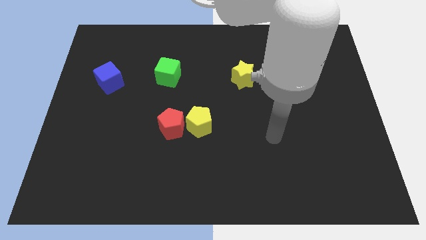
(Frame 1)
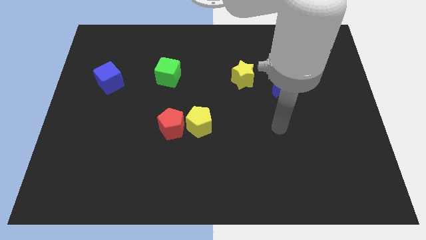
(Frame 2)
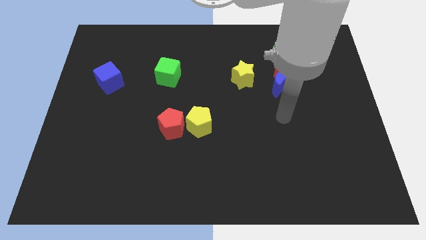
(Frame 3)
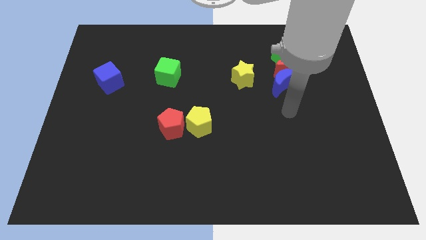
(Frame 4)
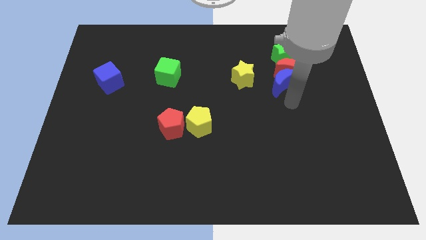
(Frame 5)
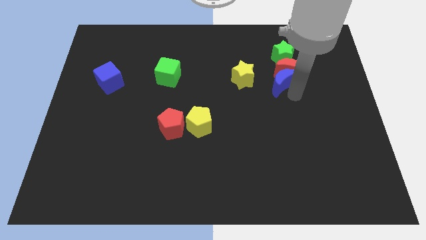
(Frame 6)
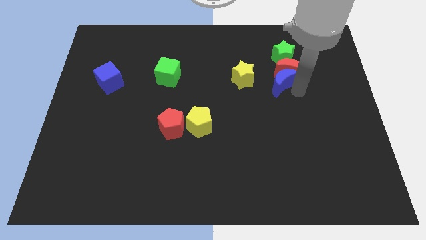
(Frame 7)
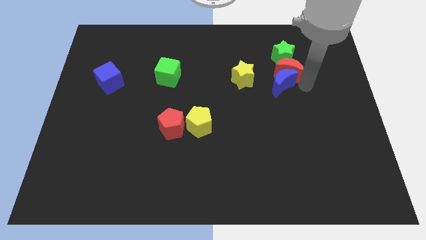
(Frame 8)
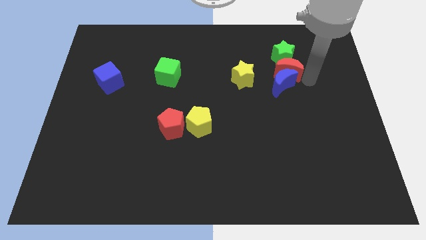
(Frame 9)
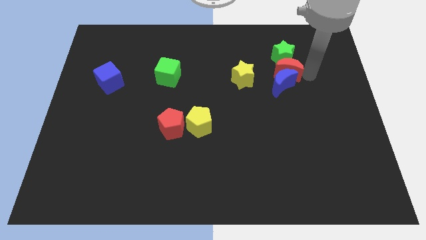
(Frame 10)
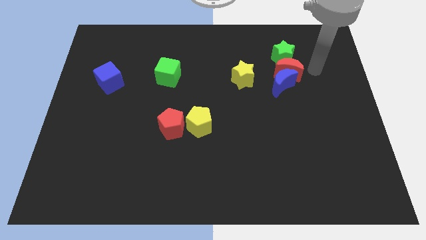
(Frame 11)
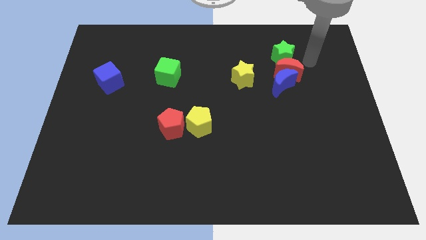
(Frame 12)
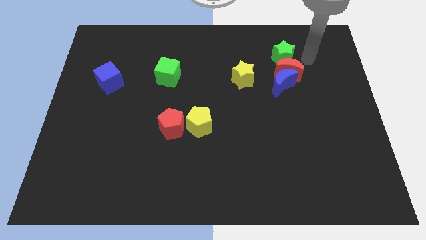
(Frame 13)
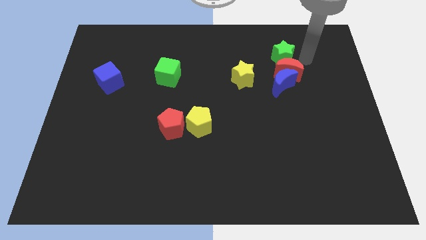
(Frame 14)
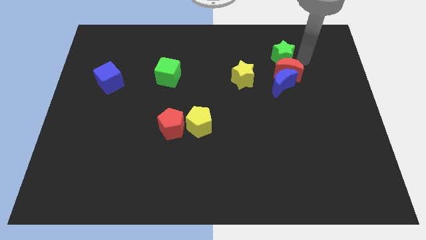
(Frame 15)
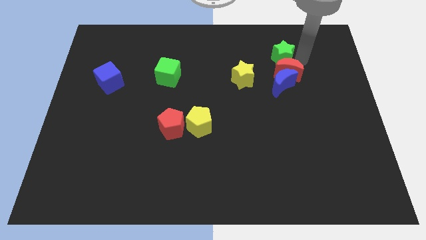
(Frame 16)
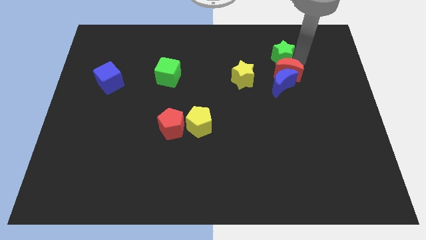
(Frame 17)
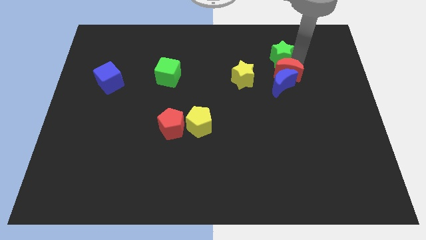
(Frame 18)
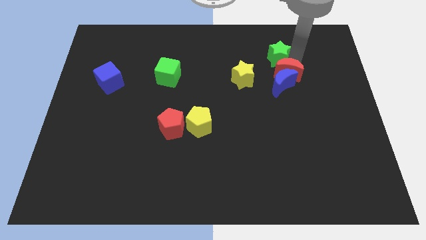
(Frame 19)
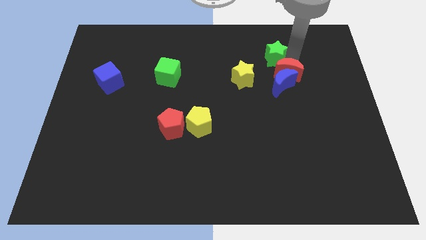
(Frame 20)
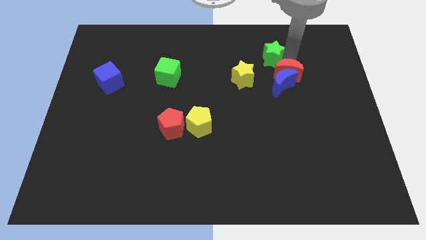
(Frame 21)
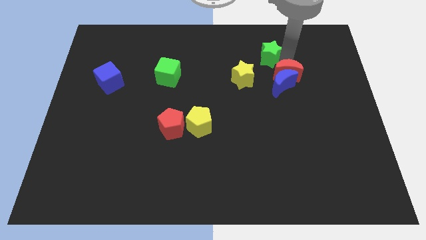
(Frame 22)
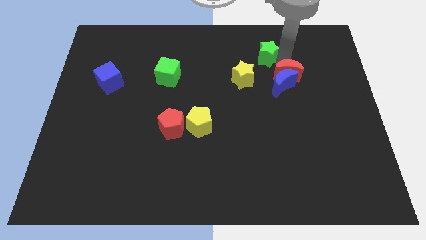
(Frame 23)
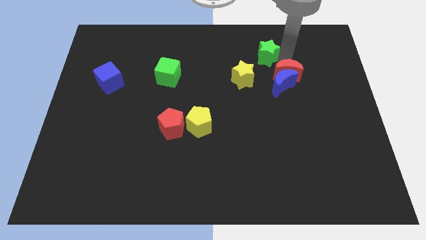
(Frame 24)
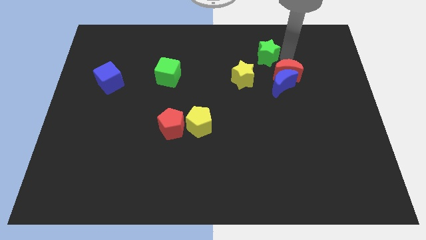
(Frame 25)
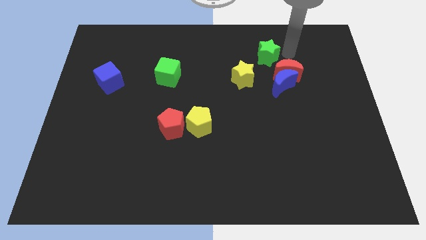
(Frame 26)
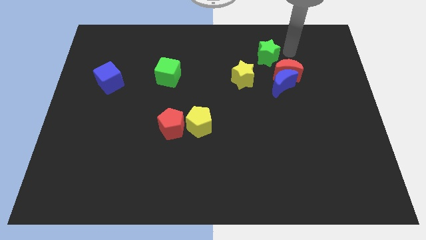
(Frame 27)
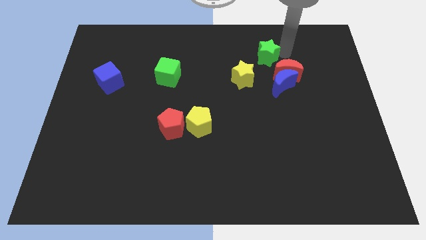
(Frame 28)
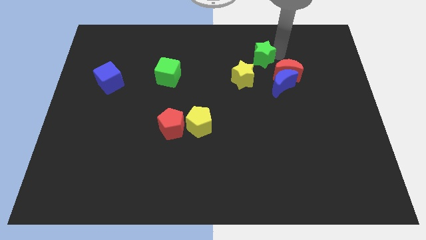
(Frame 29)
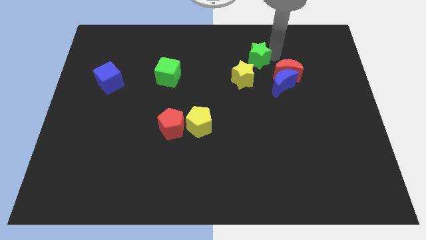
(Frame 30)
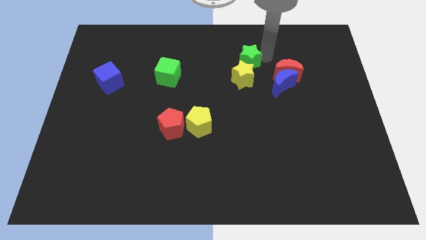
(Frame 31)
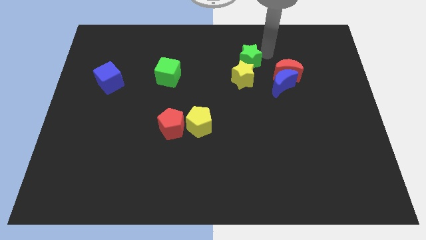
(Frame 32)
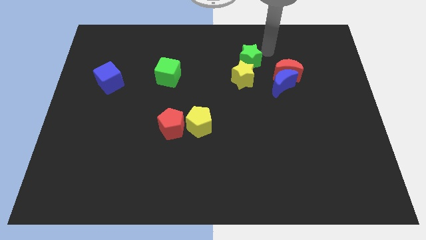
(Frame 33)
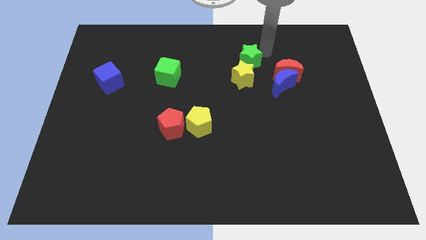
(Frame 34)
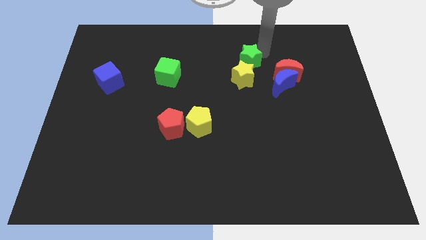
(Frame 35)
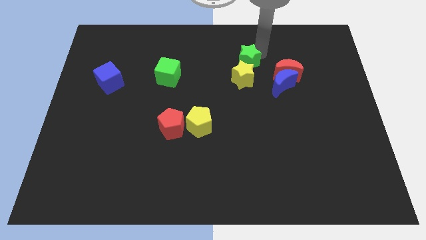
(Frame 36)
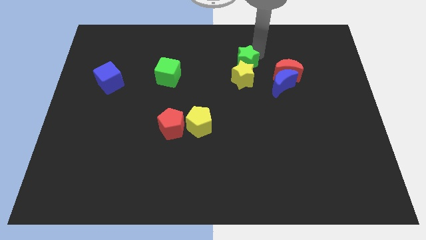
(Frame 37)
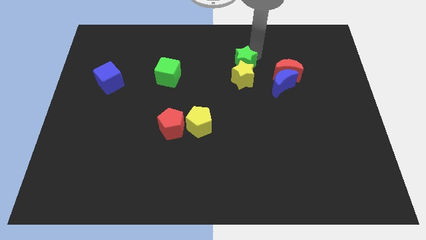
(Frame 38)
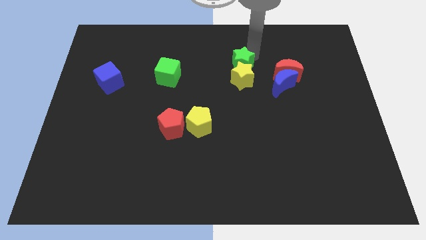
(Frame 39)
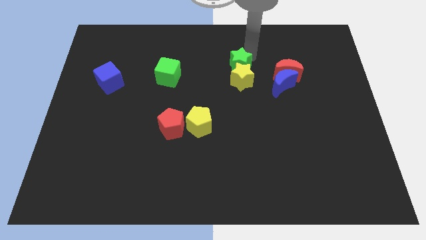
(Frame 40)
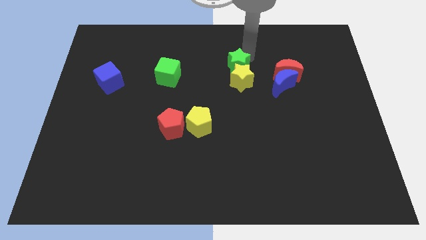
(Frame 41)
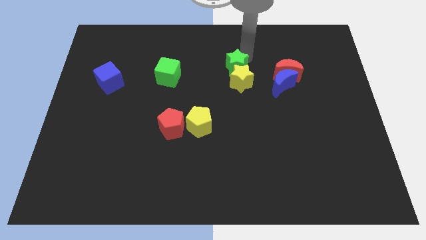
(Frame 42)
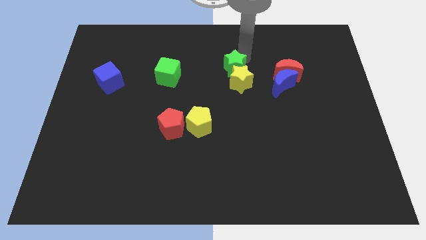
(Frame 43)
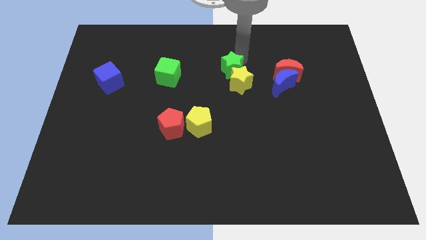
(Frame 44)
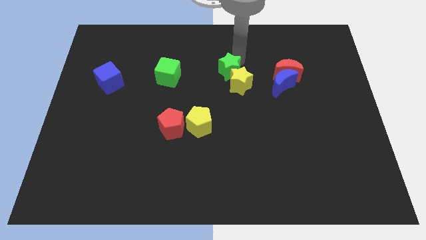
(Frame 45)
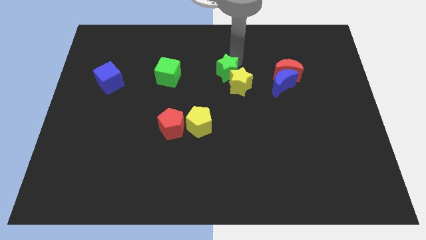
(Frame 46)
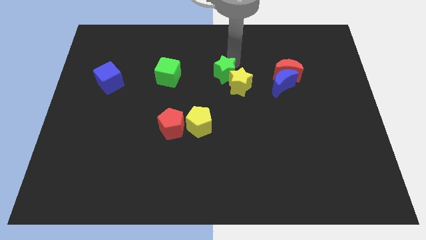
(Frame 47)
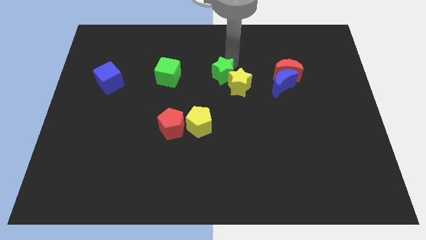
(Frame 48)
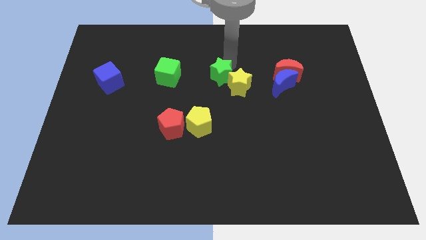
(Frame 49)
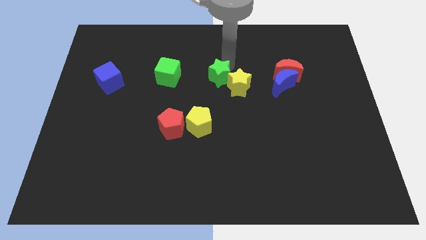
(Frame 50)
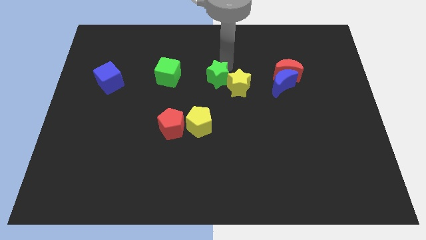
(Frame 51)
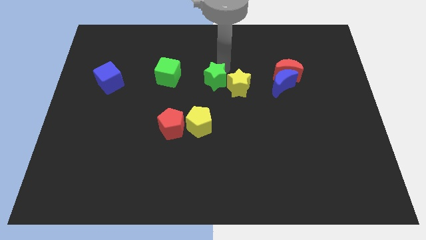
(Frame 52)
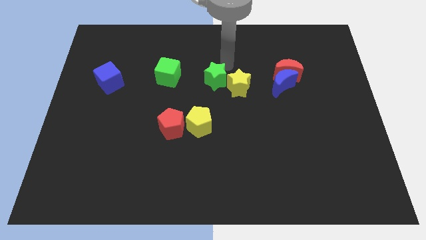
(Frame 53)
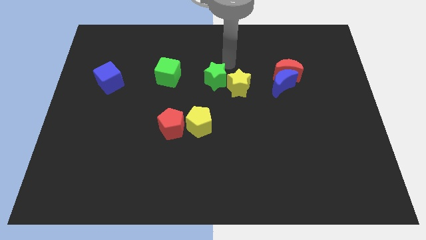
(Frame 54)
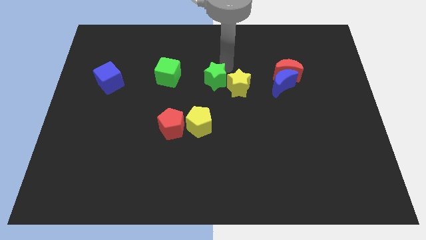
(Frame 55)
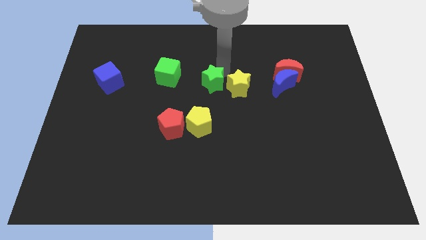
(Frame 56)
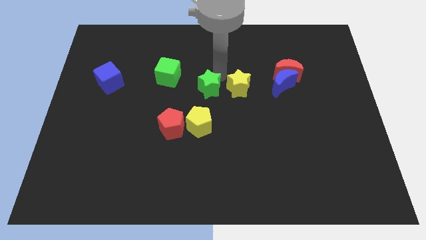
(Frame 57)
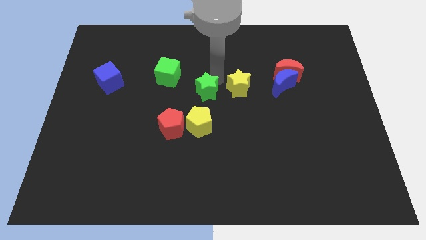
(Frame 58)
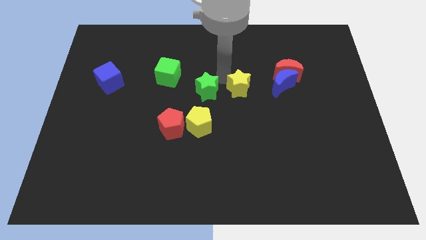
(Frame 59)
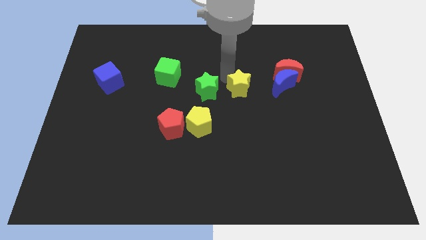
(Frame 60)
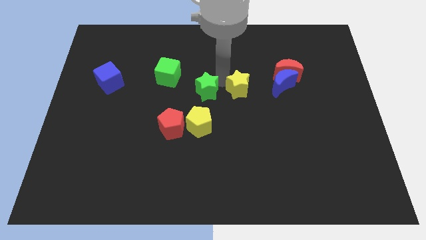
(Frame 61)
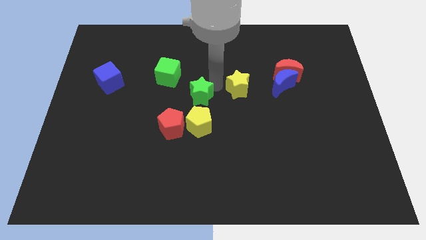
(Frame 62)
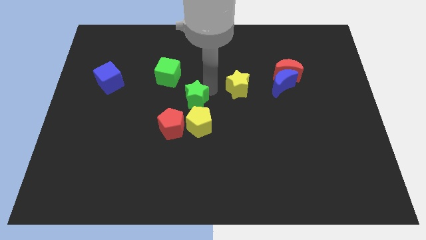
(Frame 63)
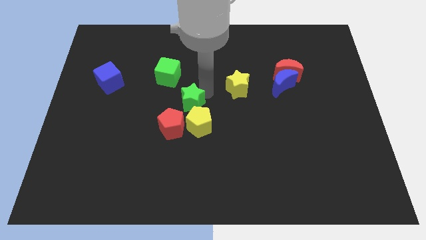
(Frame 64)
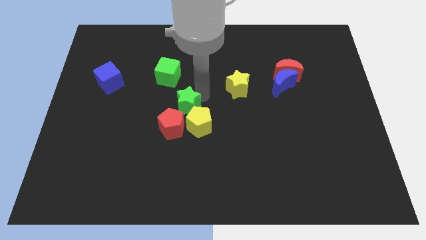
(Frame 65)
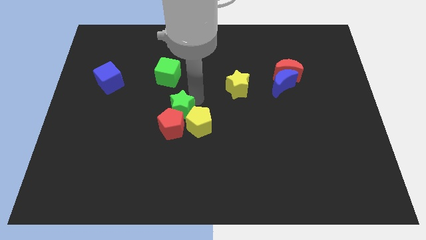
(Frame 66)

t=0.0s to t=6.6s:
put the green star close to the red pentagon

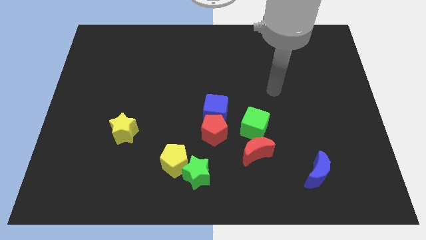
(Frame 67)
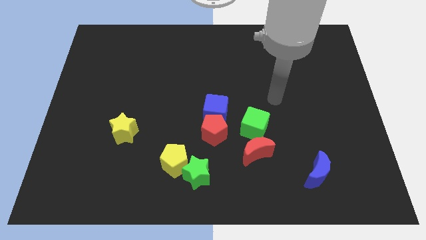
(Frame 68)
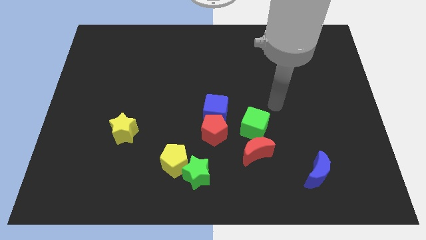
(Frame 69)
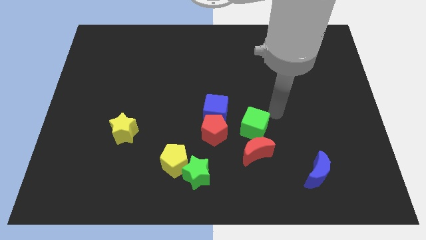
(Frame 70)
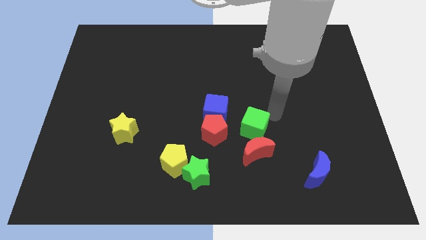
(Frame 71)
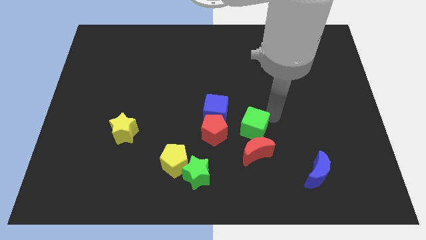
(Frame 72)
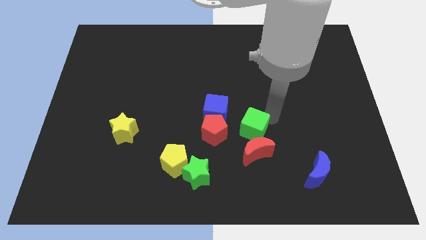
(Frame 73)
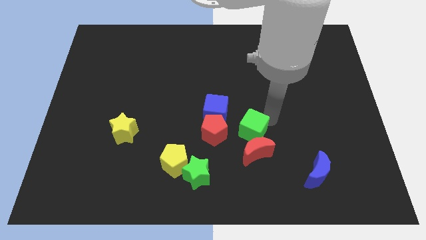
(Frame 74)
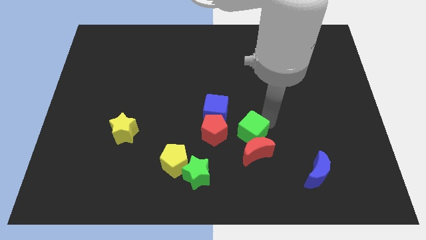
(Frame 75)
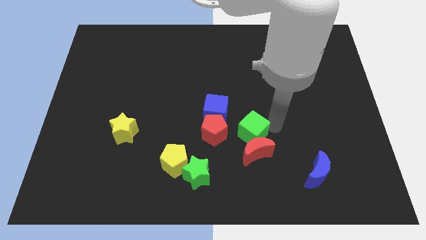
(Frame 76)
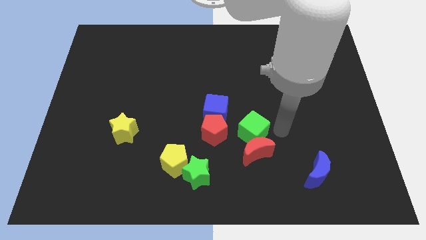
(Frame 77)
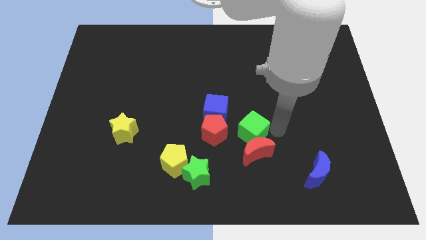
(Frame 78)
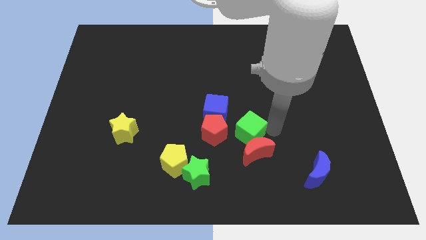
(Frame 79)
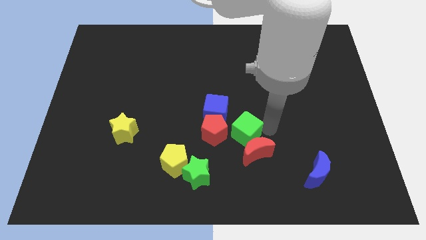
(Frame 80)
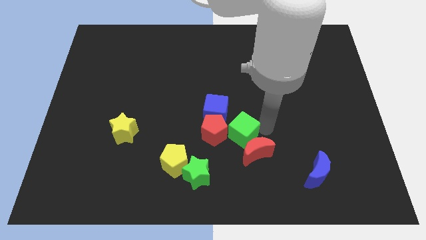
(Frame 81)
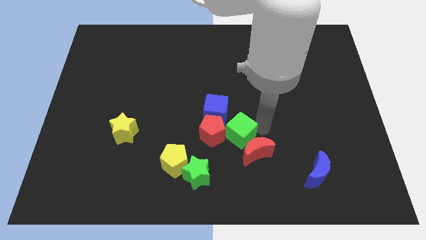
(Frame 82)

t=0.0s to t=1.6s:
slide the green cube to the red pentagon
